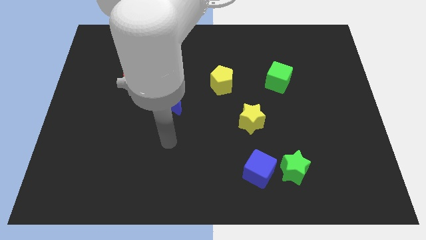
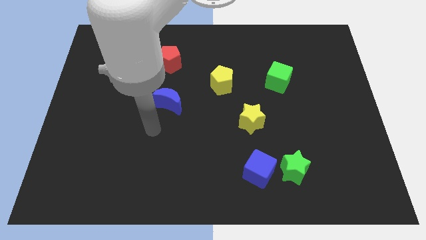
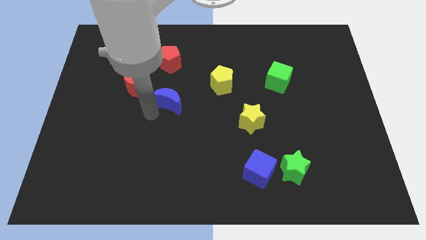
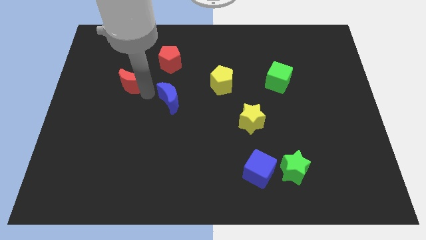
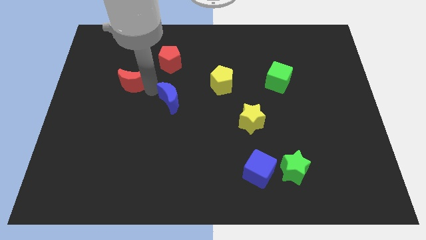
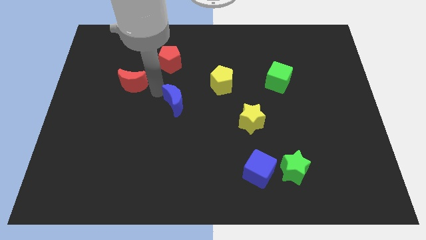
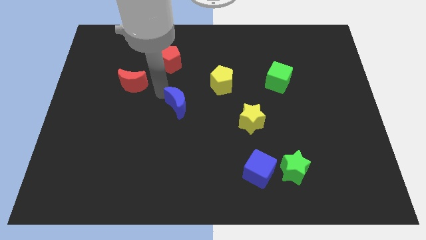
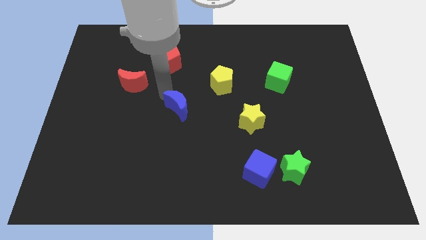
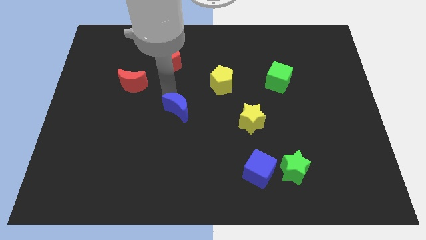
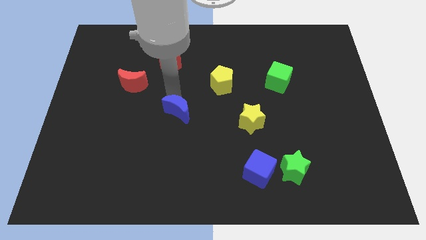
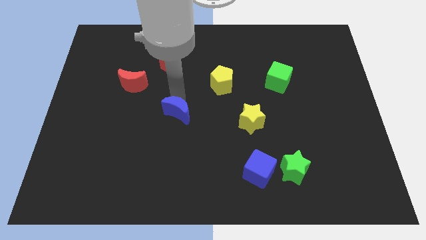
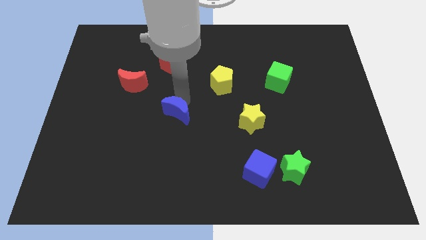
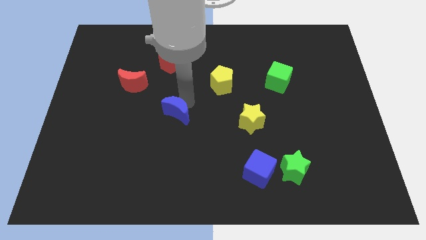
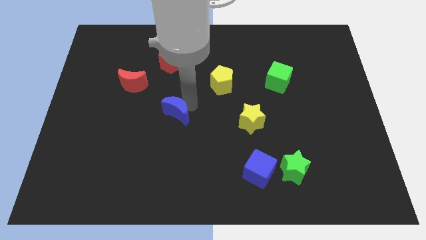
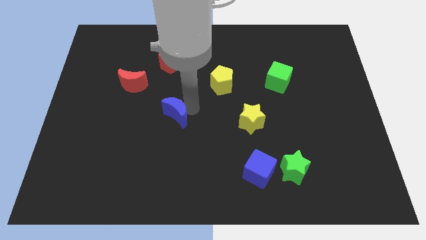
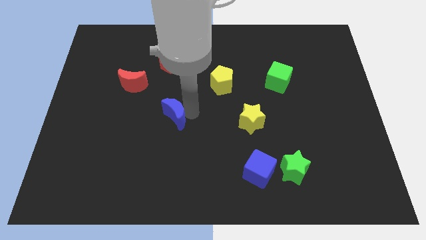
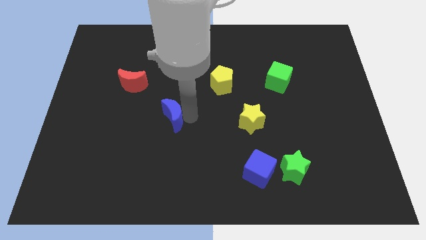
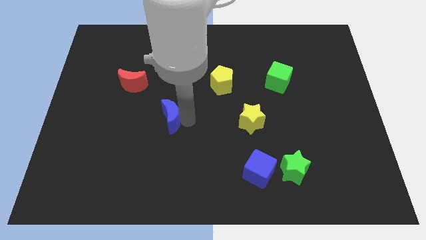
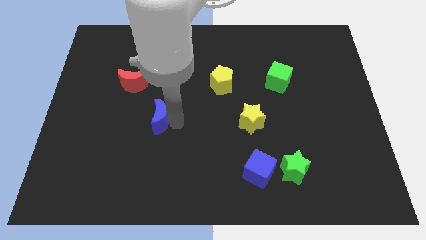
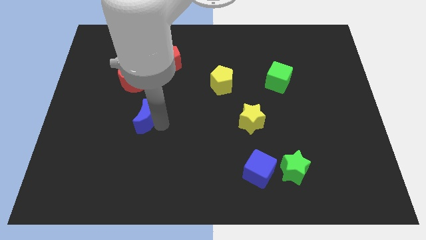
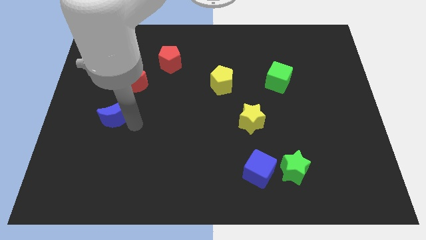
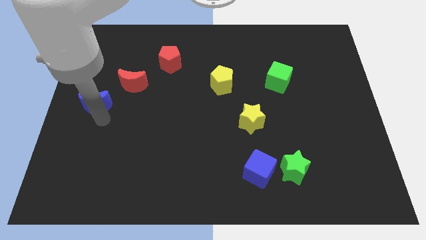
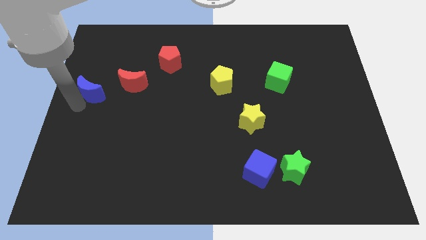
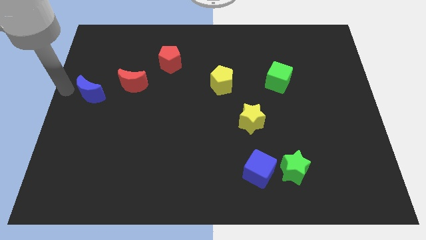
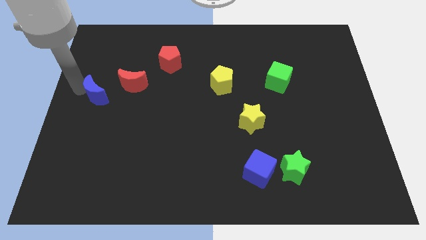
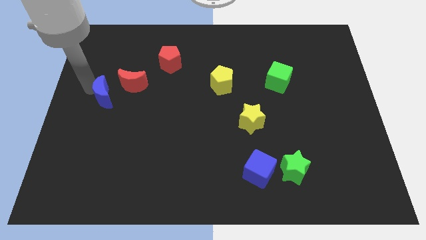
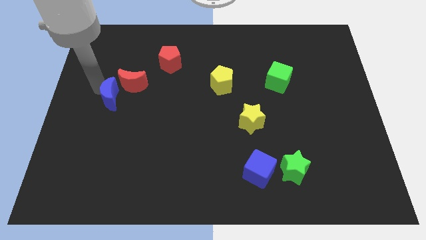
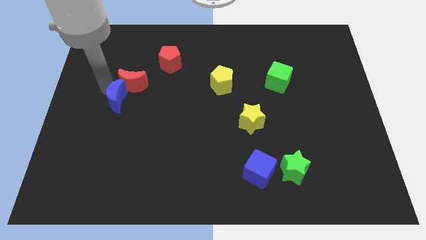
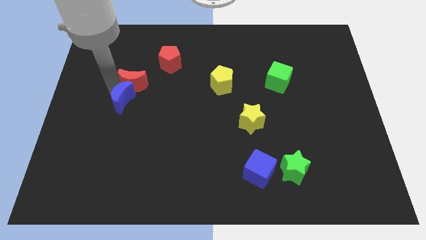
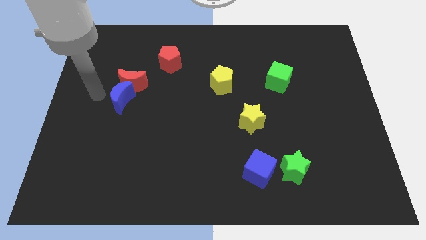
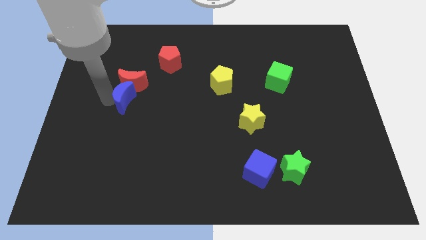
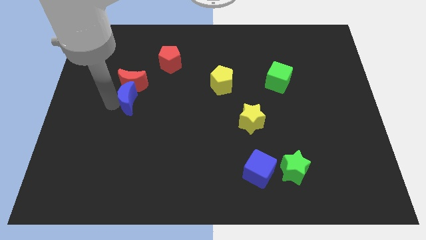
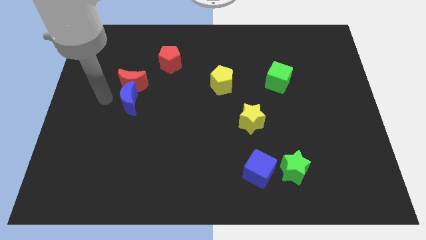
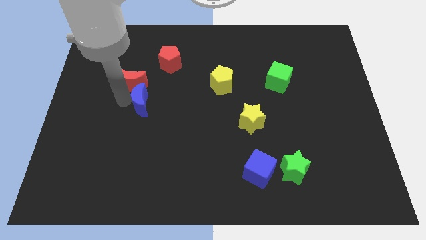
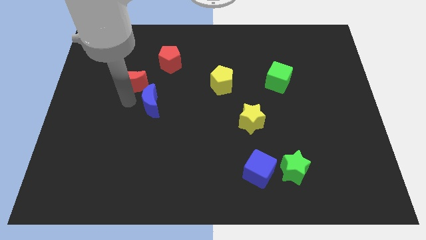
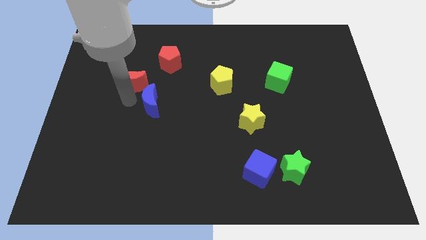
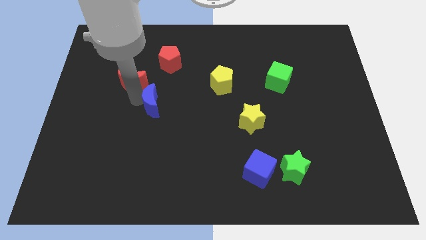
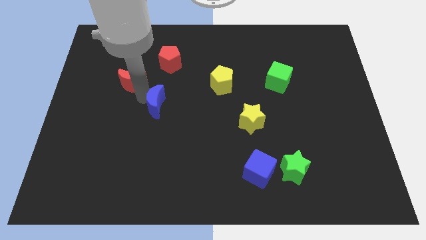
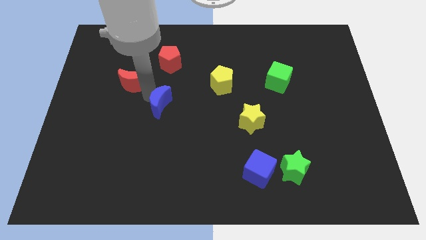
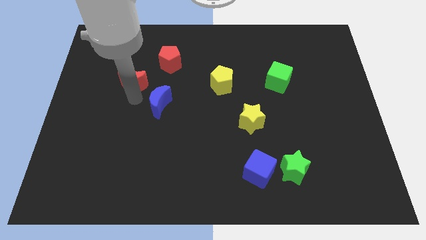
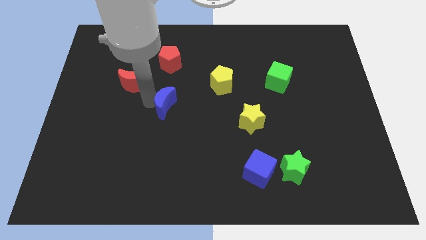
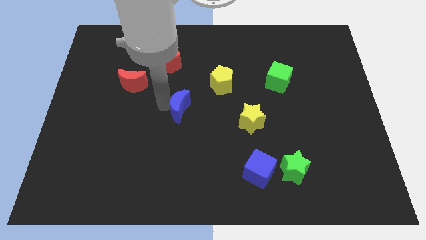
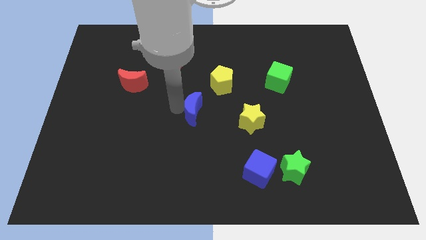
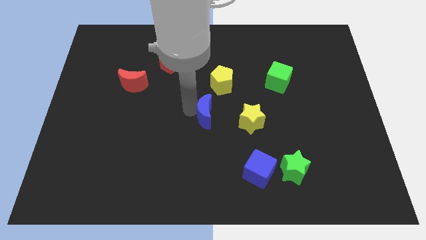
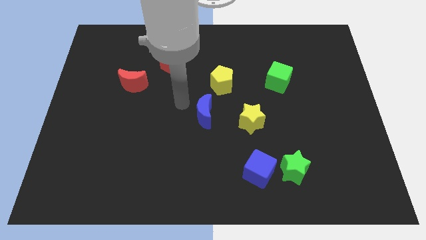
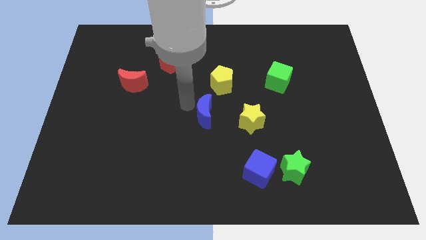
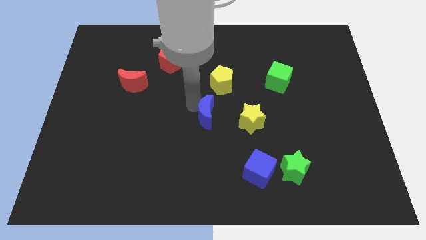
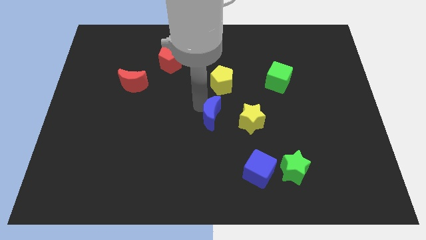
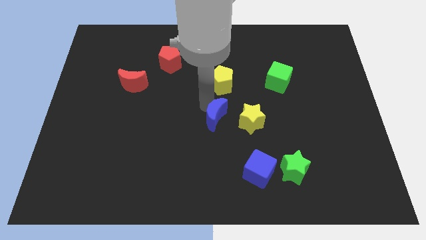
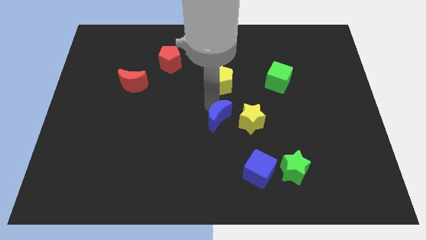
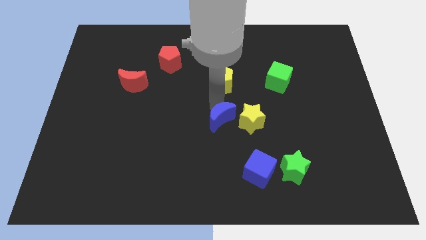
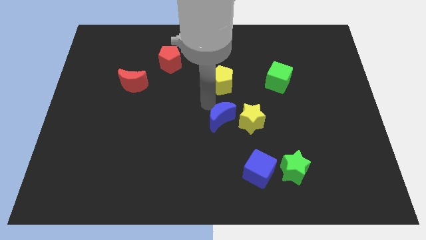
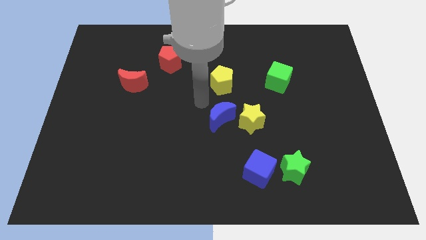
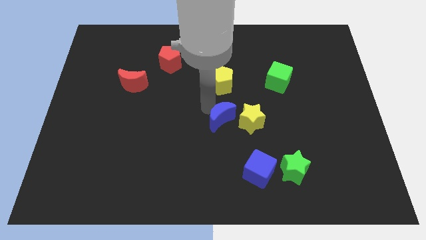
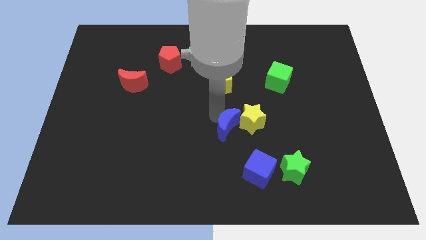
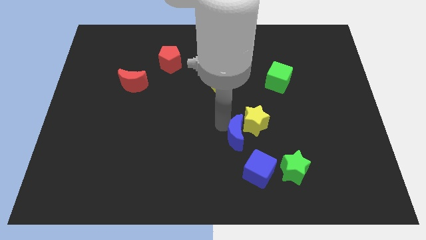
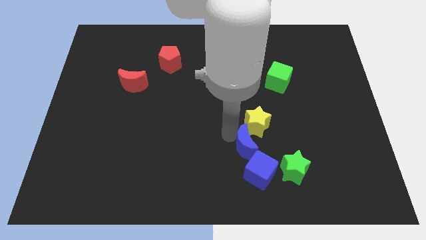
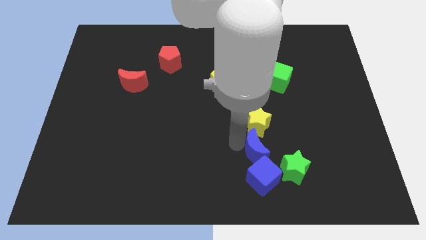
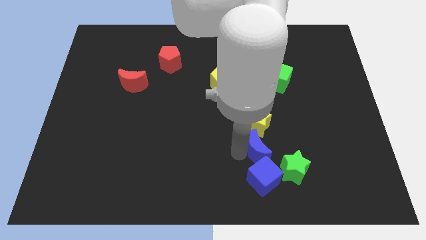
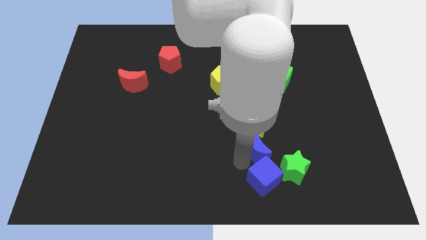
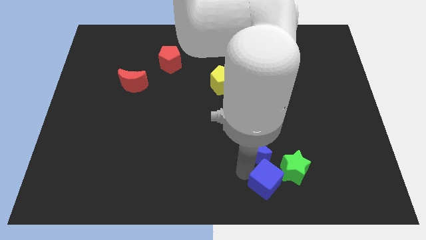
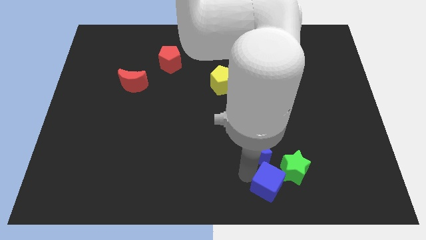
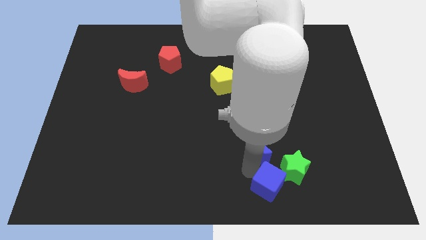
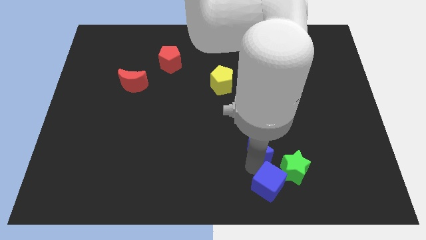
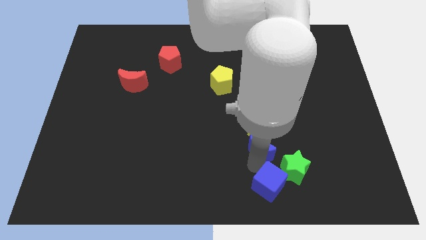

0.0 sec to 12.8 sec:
slide the blue moon to the bottom right of the yellow star
